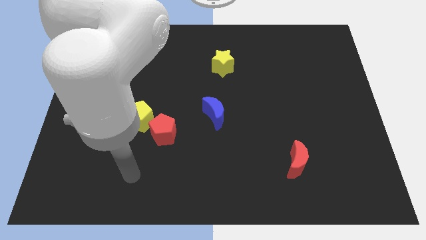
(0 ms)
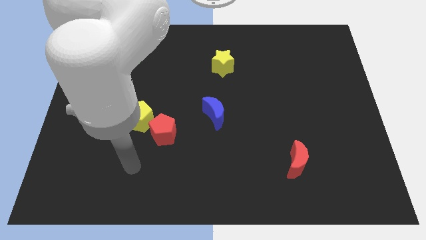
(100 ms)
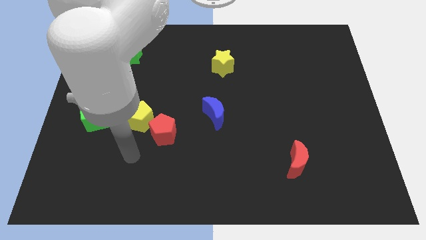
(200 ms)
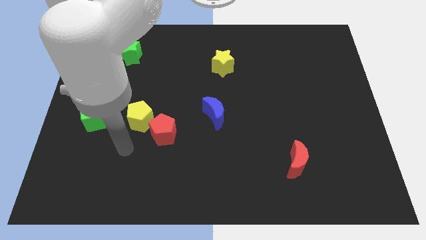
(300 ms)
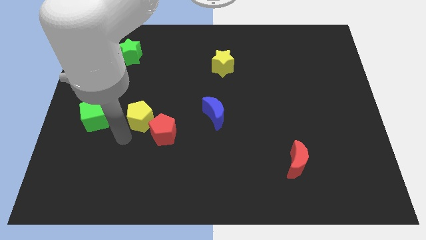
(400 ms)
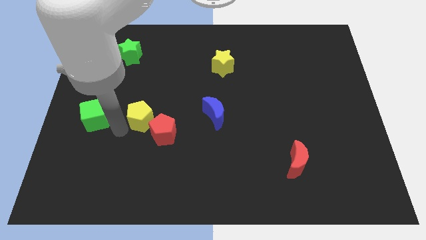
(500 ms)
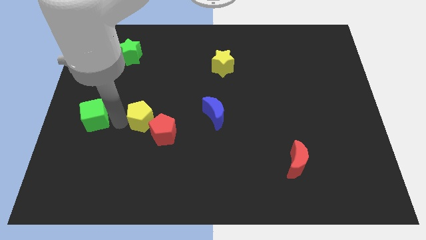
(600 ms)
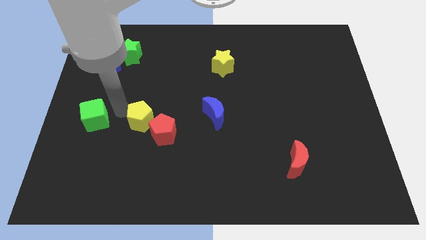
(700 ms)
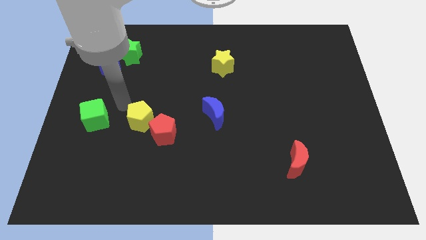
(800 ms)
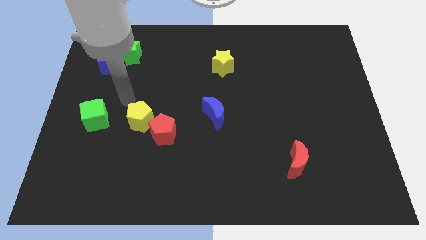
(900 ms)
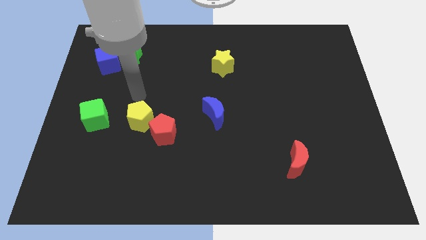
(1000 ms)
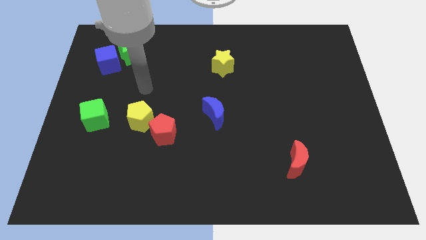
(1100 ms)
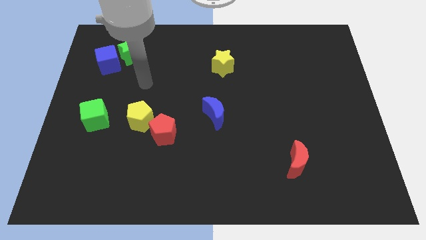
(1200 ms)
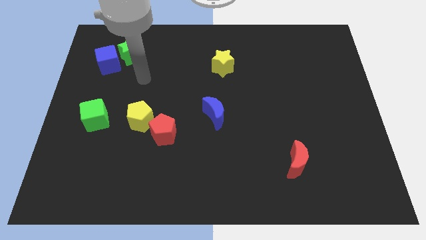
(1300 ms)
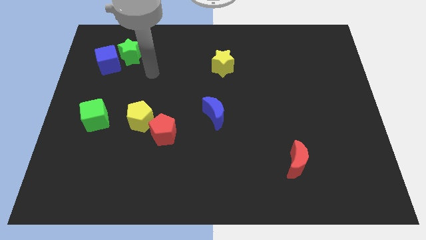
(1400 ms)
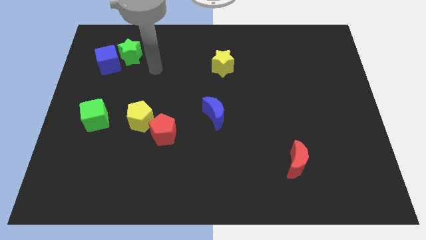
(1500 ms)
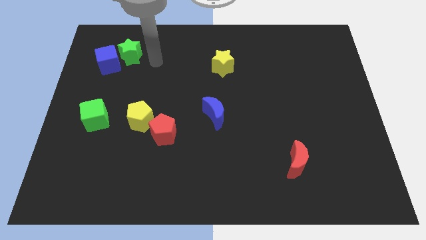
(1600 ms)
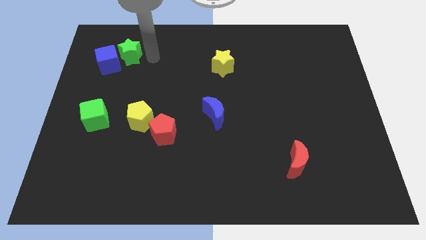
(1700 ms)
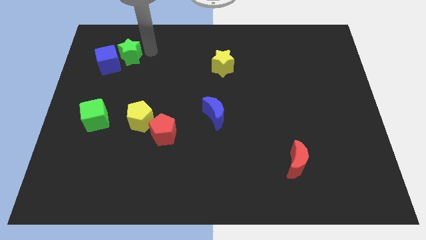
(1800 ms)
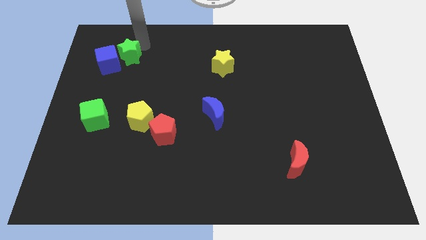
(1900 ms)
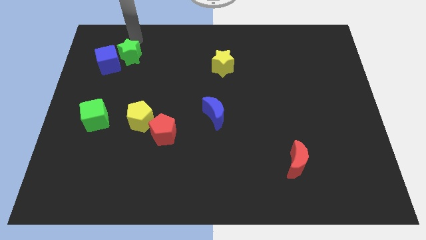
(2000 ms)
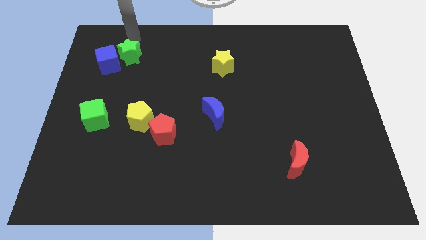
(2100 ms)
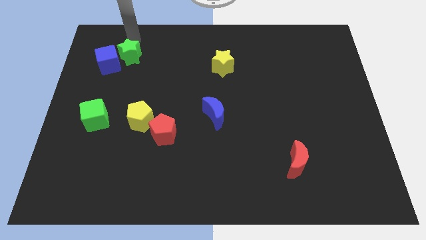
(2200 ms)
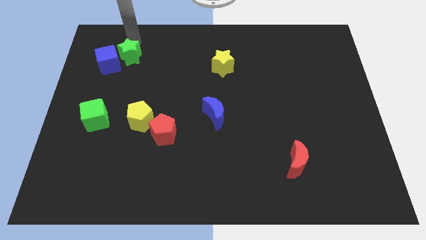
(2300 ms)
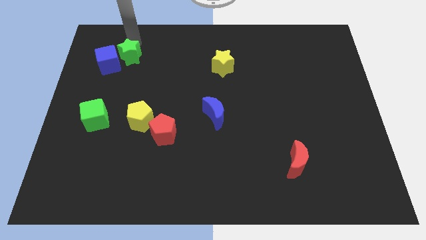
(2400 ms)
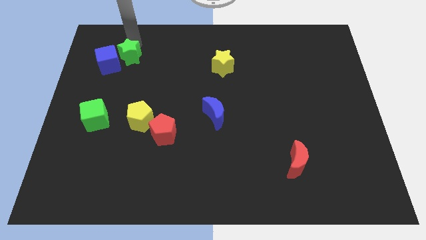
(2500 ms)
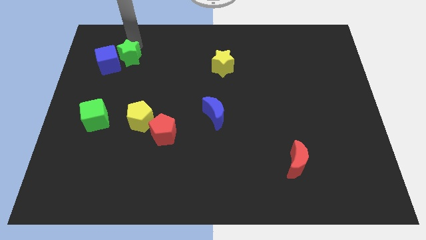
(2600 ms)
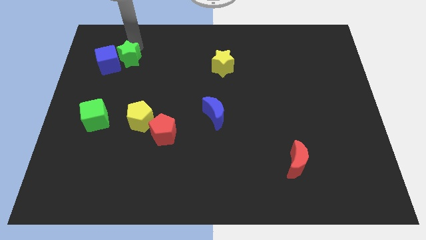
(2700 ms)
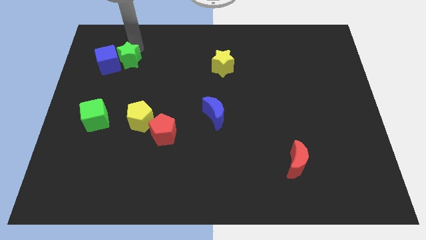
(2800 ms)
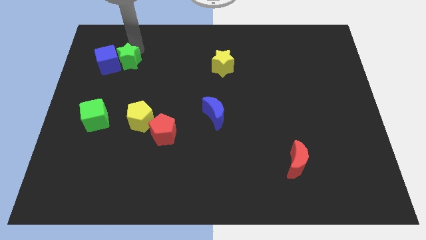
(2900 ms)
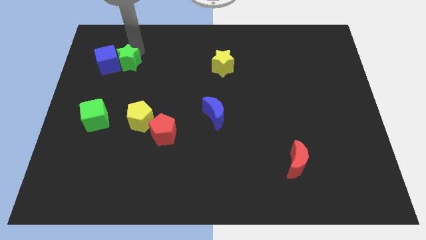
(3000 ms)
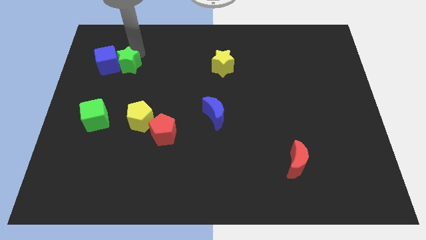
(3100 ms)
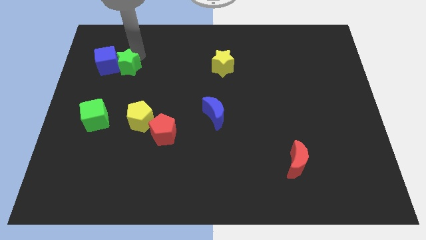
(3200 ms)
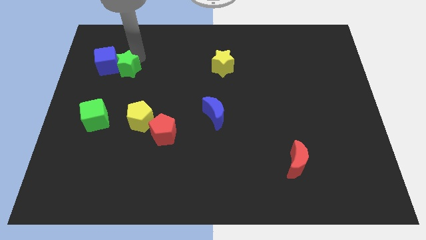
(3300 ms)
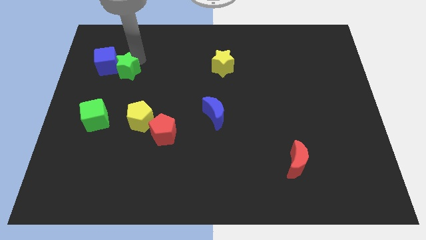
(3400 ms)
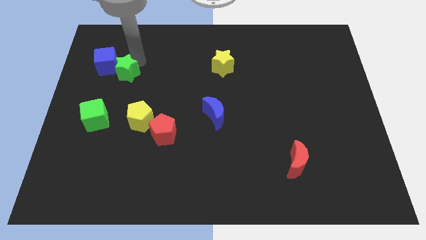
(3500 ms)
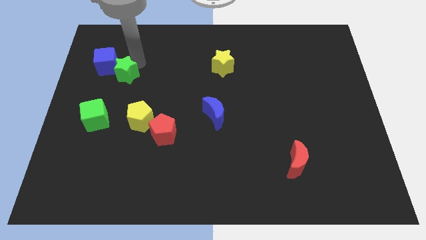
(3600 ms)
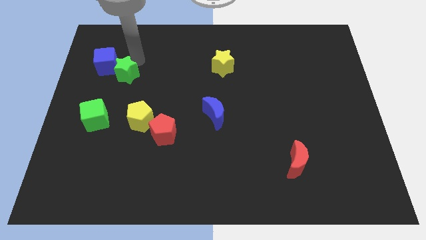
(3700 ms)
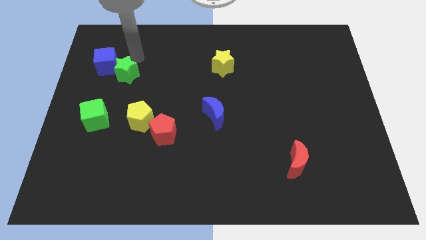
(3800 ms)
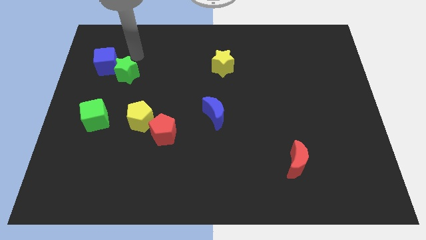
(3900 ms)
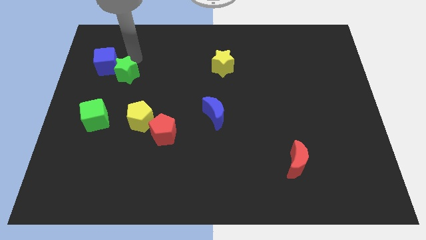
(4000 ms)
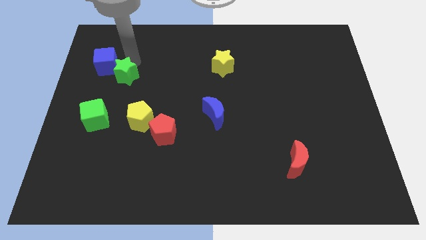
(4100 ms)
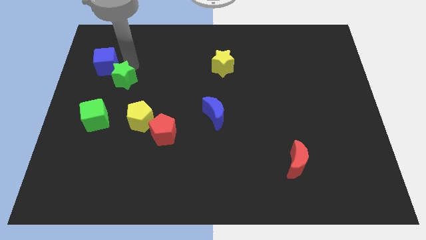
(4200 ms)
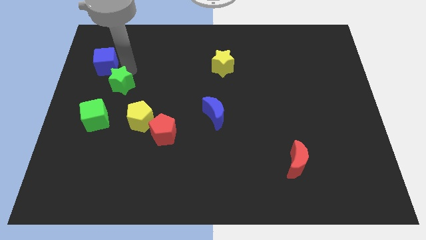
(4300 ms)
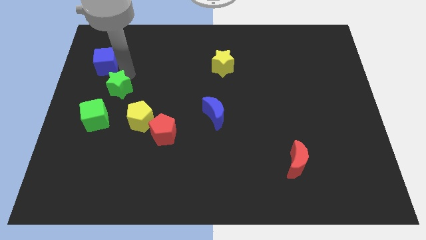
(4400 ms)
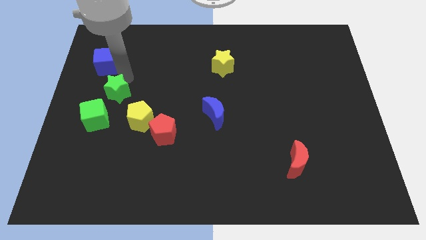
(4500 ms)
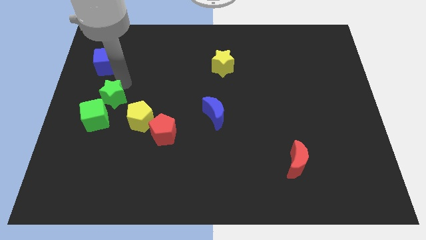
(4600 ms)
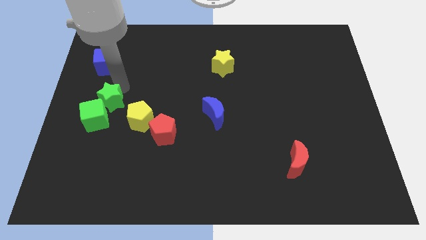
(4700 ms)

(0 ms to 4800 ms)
move the green star towards the green cube

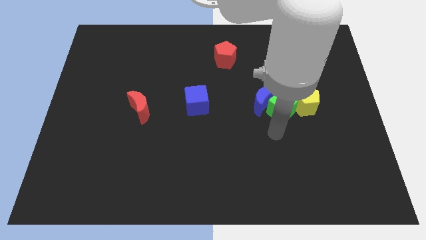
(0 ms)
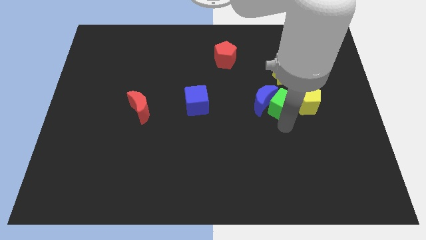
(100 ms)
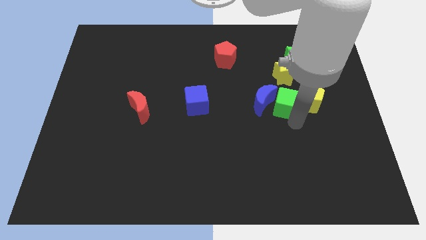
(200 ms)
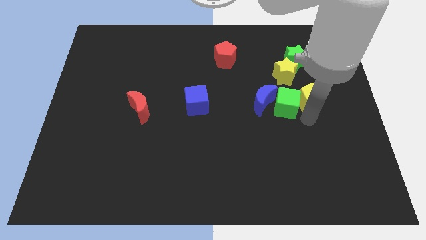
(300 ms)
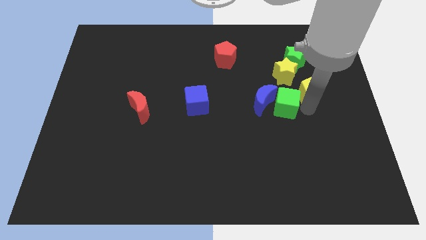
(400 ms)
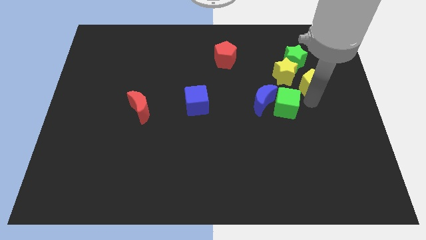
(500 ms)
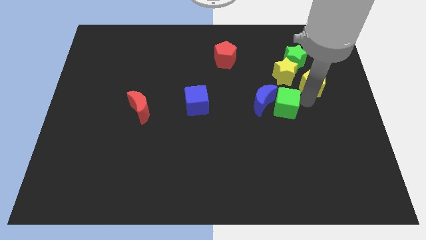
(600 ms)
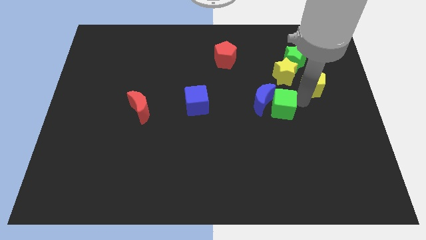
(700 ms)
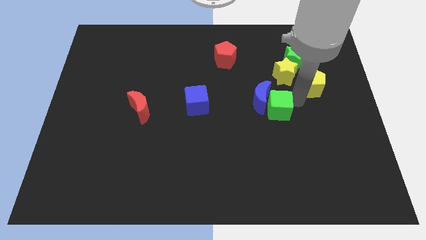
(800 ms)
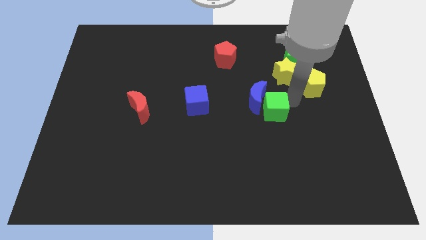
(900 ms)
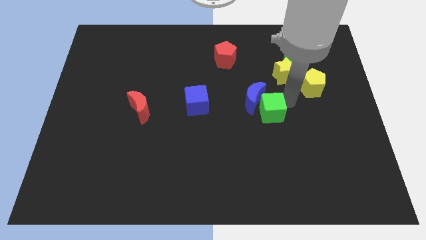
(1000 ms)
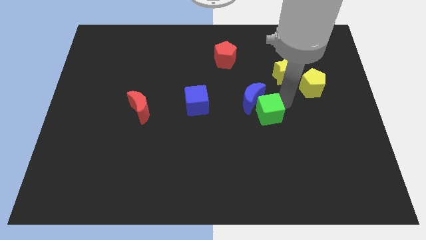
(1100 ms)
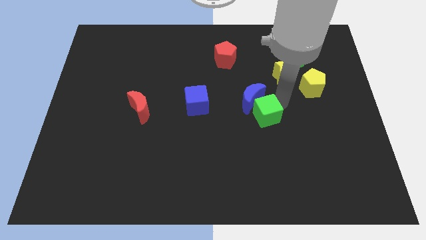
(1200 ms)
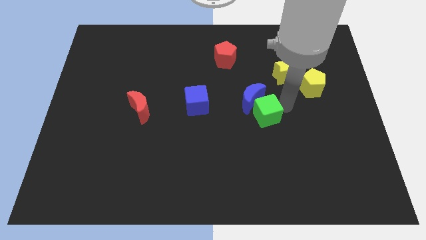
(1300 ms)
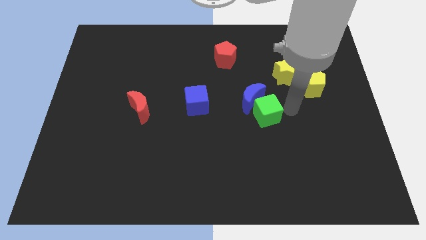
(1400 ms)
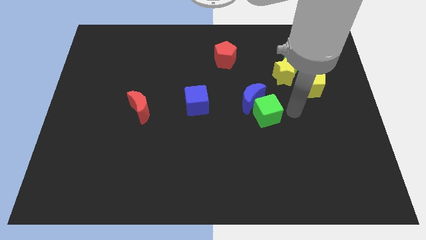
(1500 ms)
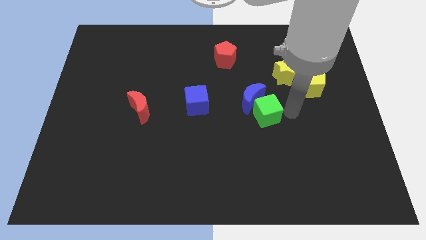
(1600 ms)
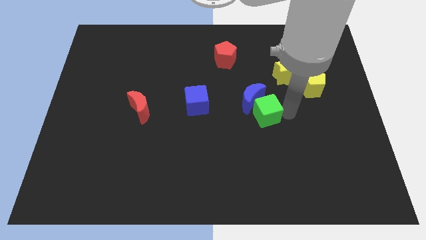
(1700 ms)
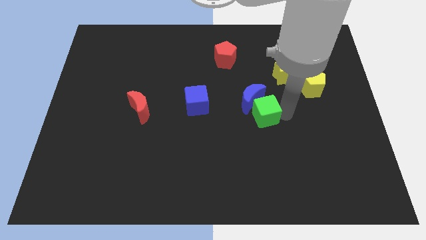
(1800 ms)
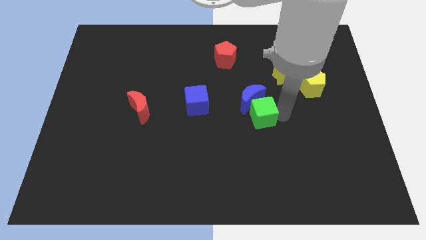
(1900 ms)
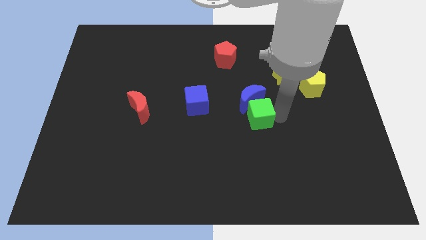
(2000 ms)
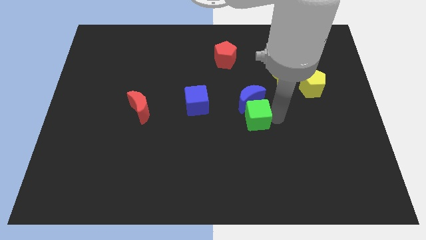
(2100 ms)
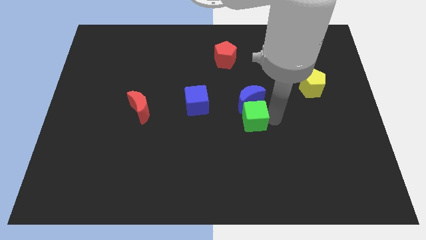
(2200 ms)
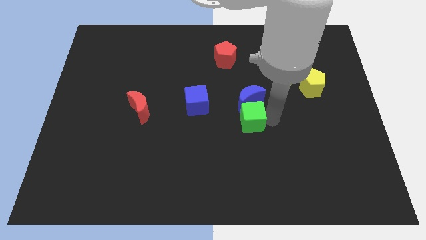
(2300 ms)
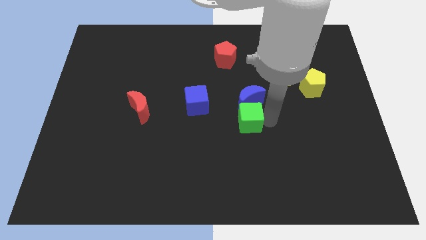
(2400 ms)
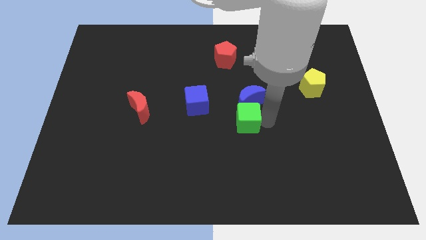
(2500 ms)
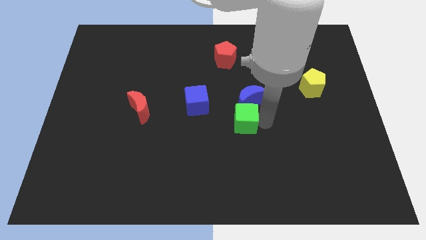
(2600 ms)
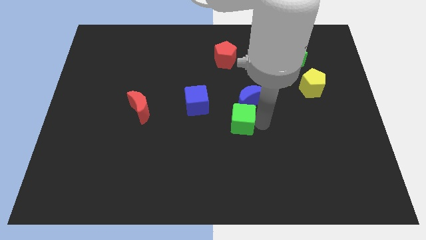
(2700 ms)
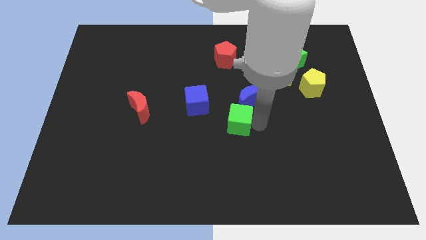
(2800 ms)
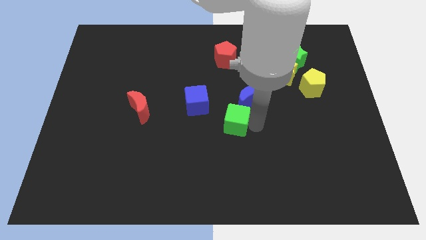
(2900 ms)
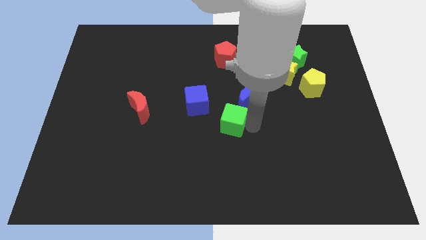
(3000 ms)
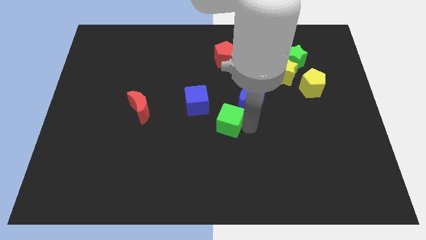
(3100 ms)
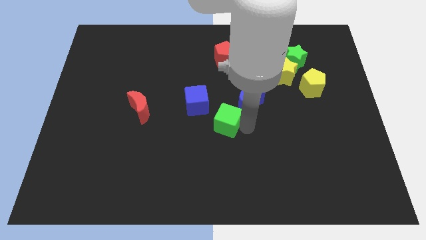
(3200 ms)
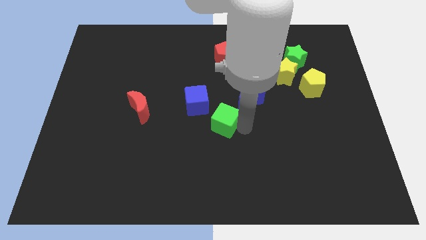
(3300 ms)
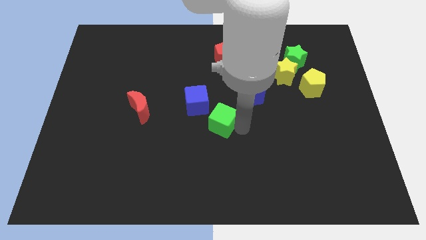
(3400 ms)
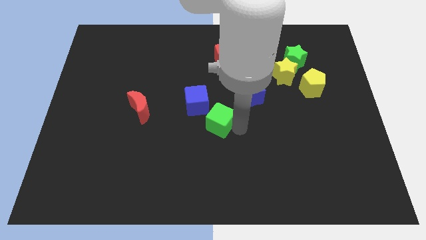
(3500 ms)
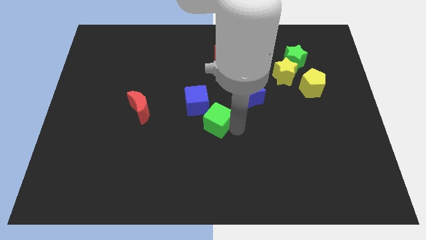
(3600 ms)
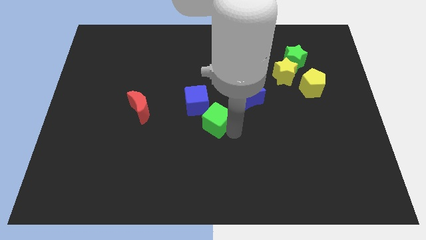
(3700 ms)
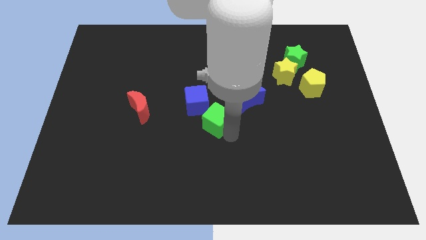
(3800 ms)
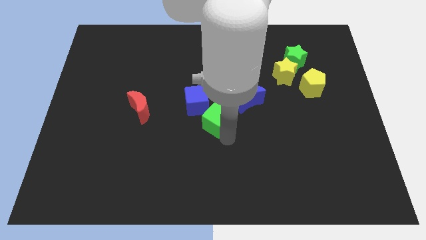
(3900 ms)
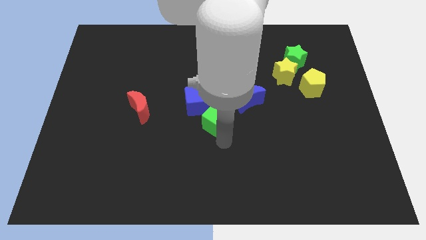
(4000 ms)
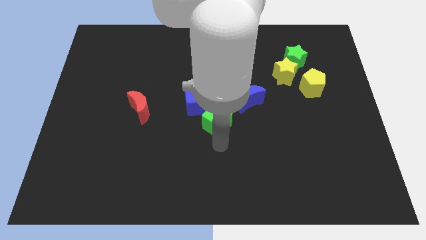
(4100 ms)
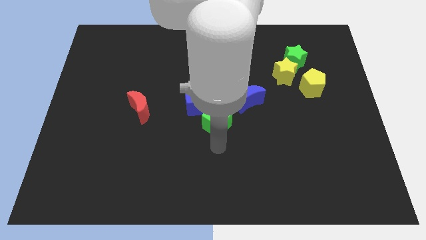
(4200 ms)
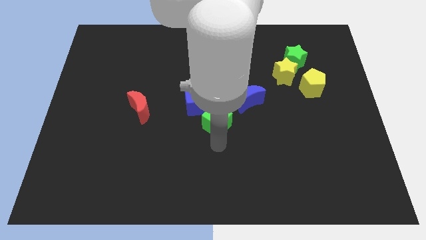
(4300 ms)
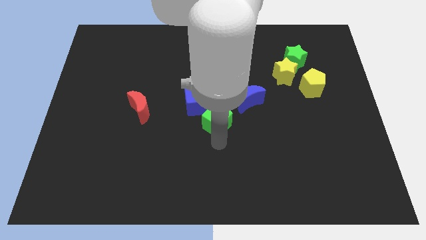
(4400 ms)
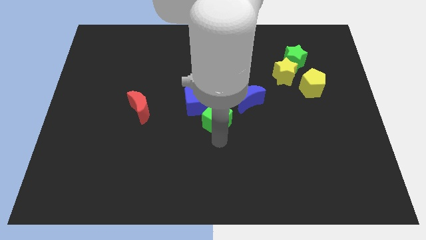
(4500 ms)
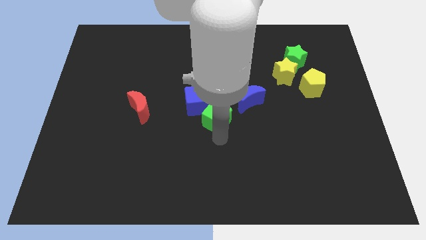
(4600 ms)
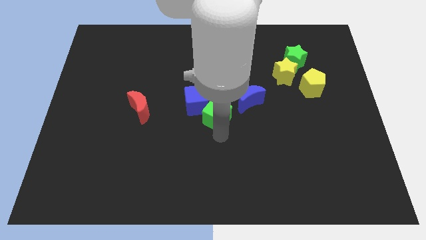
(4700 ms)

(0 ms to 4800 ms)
put the green cube next to the blue cube
